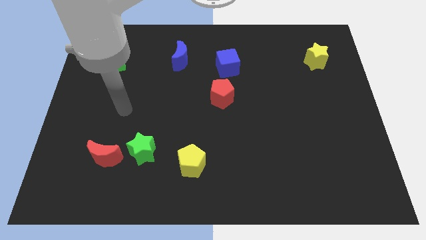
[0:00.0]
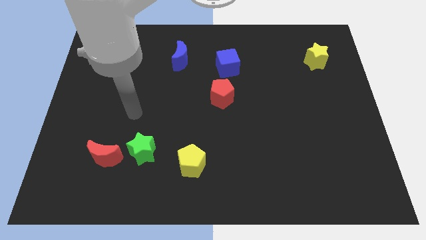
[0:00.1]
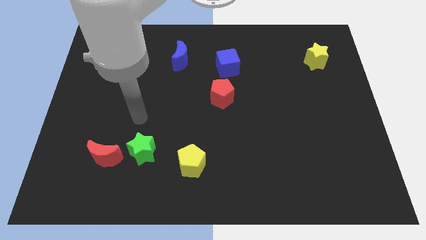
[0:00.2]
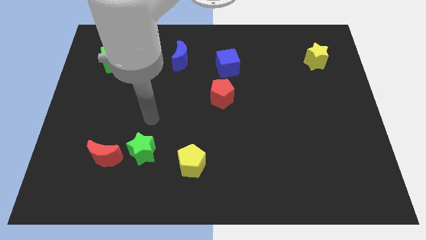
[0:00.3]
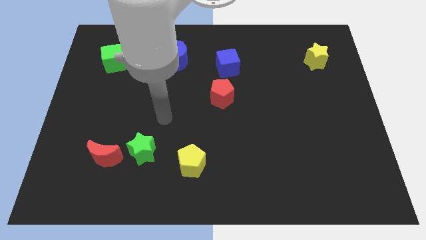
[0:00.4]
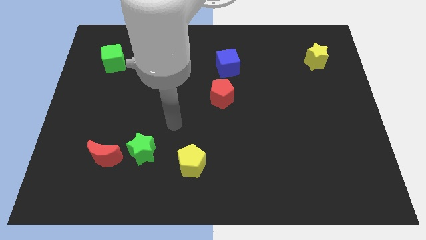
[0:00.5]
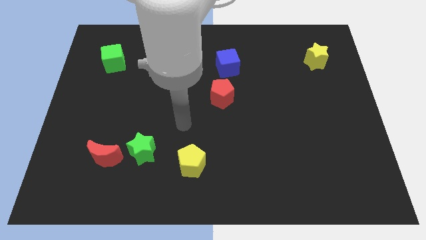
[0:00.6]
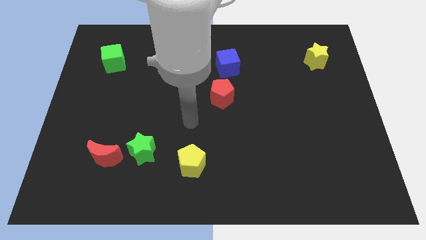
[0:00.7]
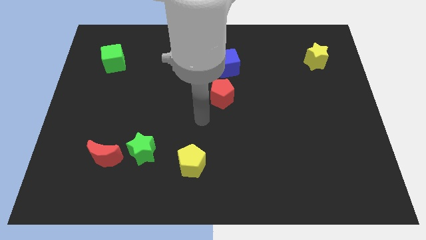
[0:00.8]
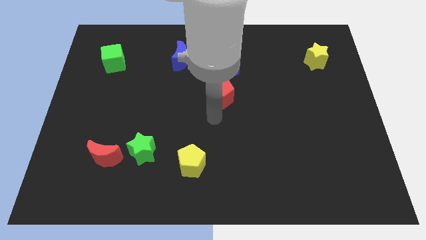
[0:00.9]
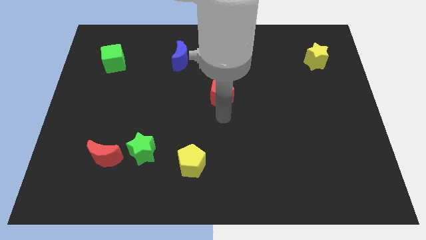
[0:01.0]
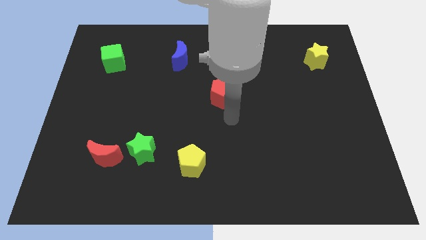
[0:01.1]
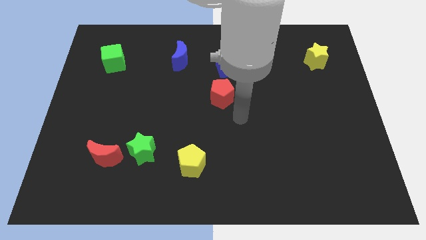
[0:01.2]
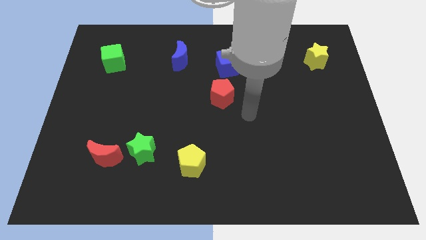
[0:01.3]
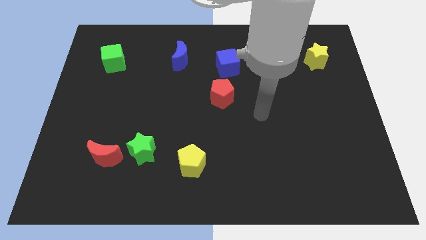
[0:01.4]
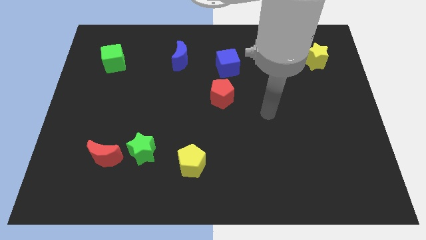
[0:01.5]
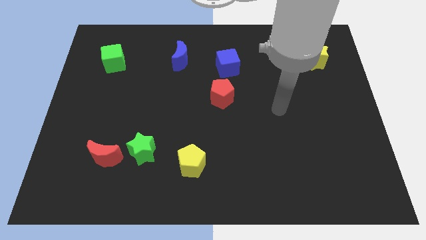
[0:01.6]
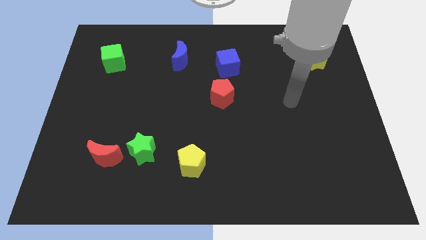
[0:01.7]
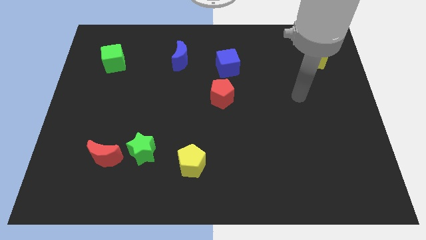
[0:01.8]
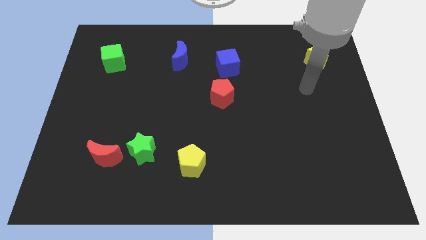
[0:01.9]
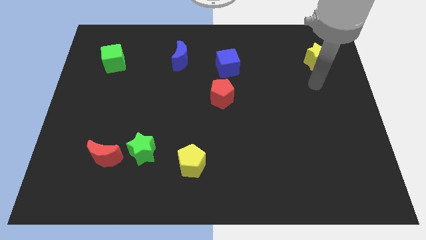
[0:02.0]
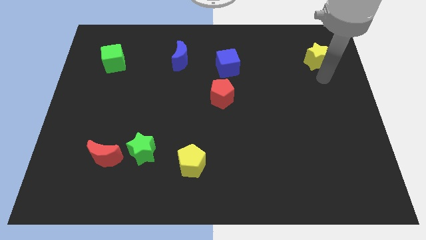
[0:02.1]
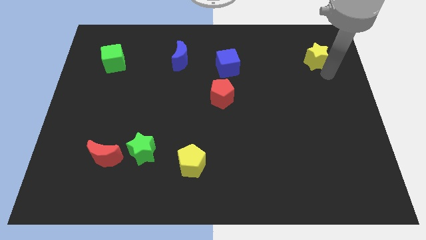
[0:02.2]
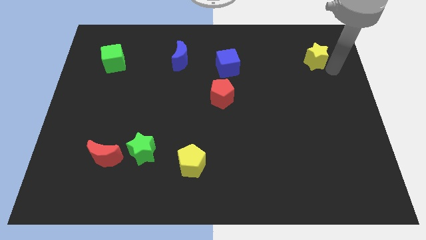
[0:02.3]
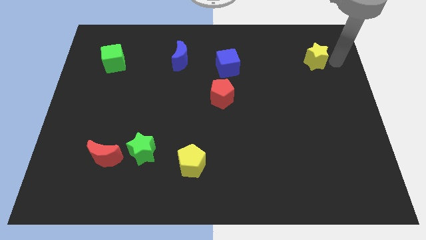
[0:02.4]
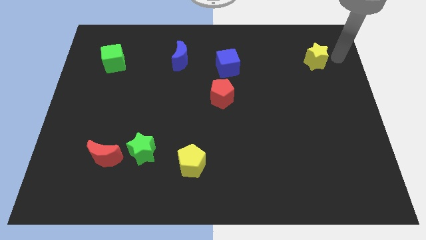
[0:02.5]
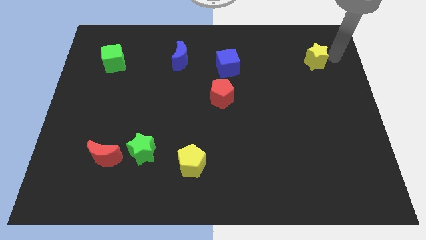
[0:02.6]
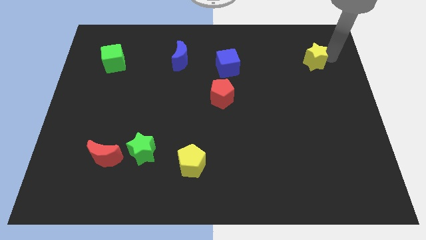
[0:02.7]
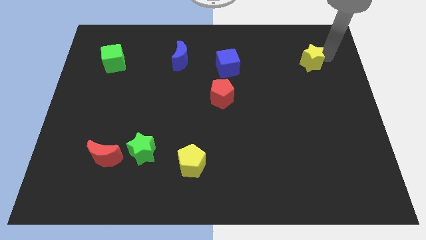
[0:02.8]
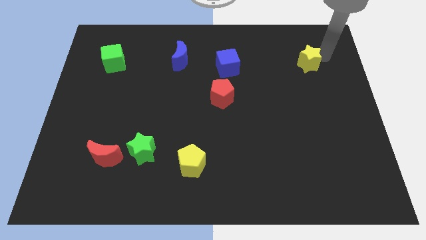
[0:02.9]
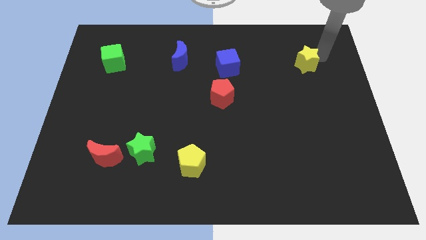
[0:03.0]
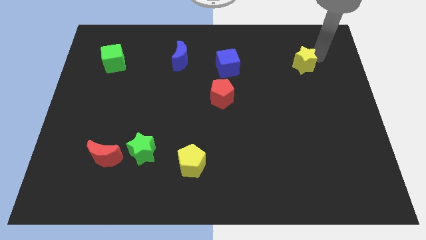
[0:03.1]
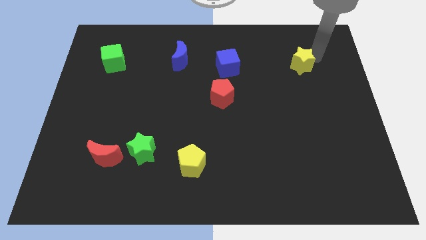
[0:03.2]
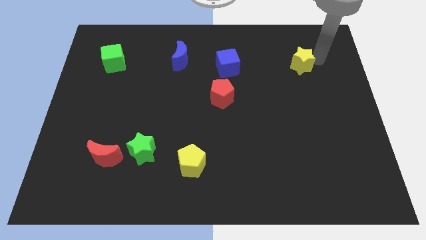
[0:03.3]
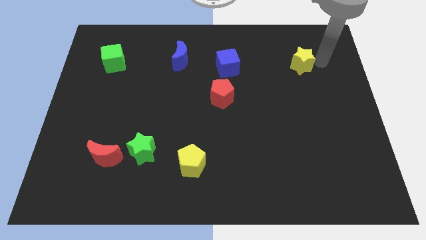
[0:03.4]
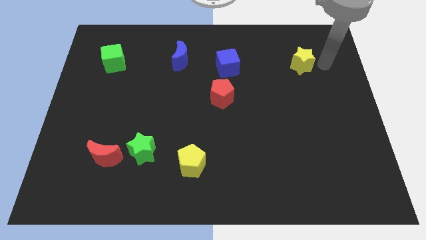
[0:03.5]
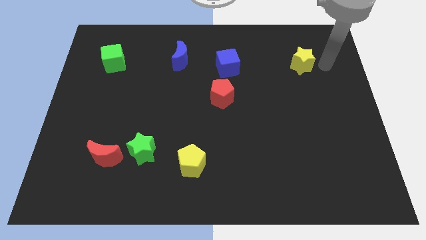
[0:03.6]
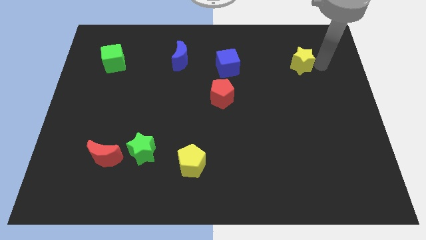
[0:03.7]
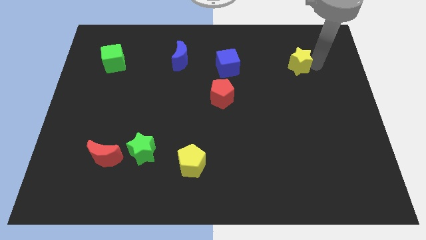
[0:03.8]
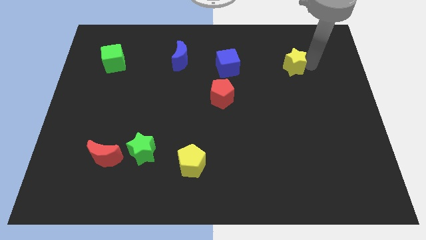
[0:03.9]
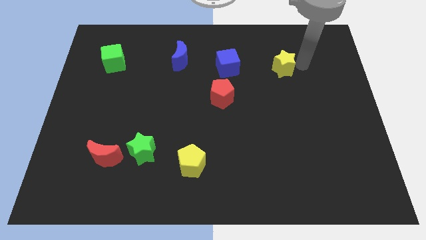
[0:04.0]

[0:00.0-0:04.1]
push the yellow star a bit left

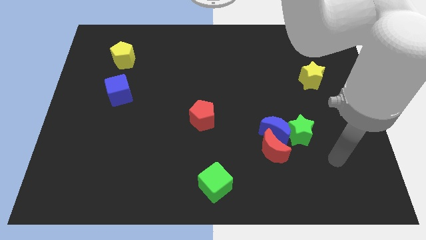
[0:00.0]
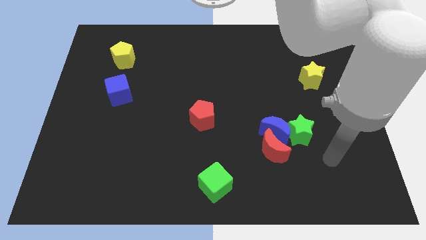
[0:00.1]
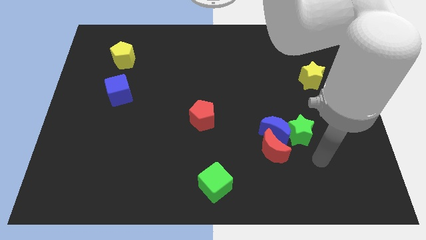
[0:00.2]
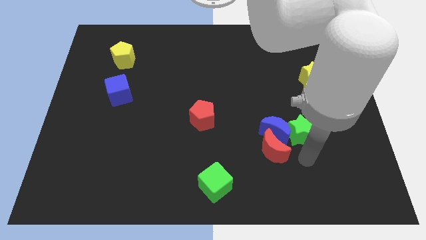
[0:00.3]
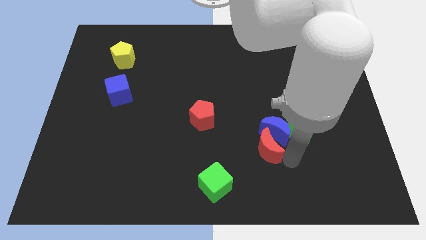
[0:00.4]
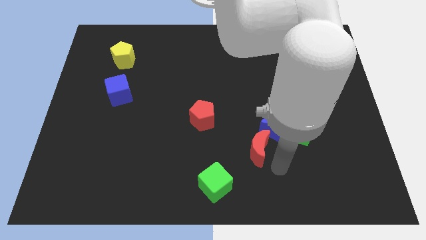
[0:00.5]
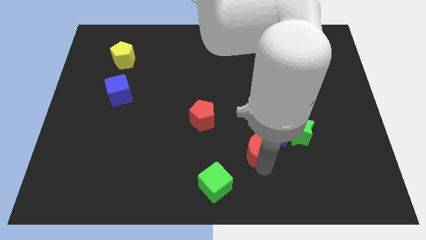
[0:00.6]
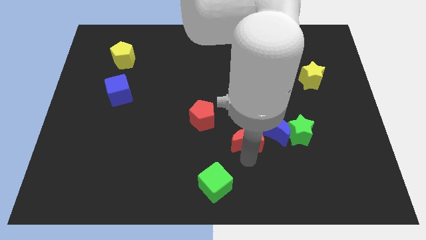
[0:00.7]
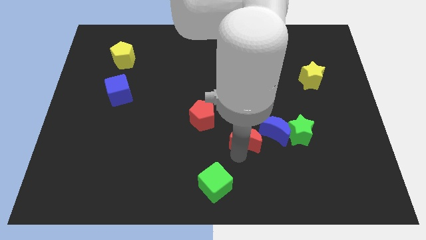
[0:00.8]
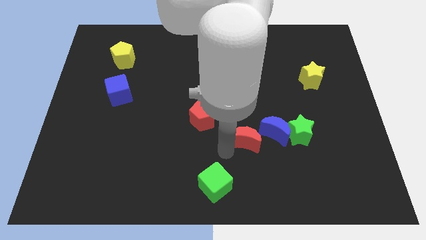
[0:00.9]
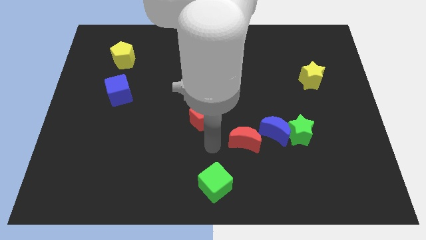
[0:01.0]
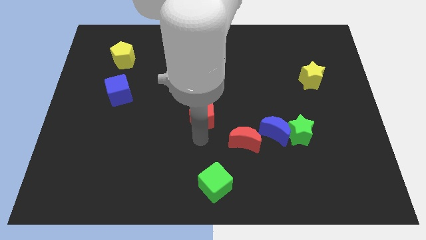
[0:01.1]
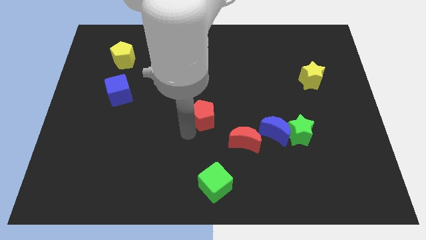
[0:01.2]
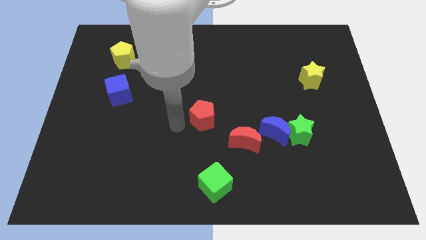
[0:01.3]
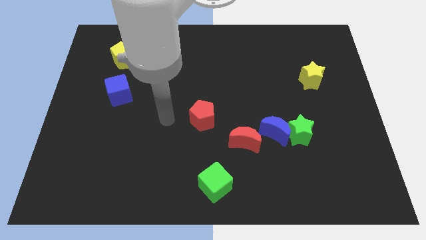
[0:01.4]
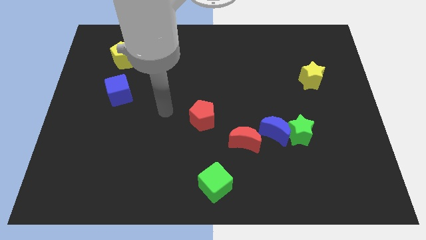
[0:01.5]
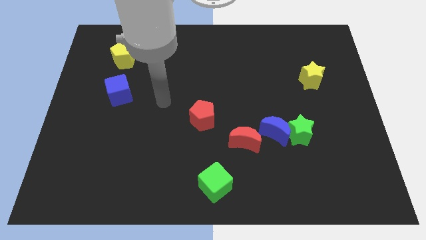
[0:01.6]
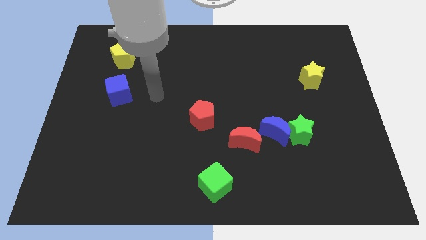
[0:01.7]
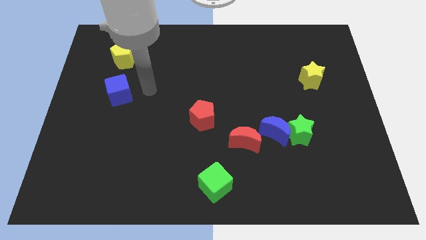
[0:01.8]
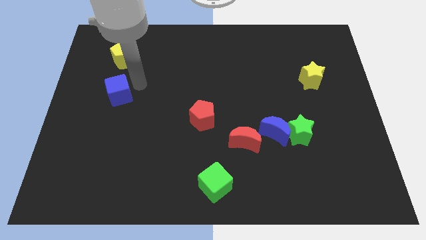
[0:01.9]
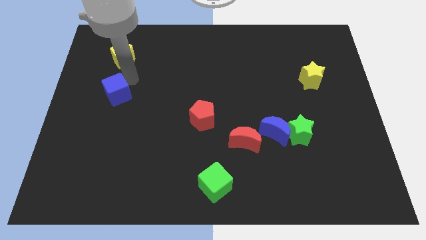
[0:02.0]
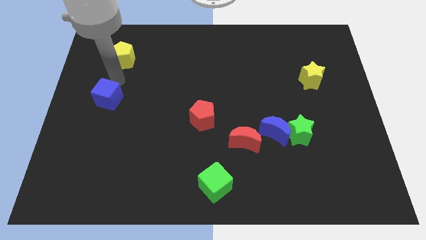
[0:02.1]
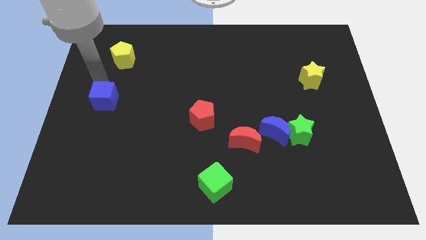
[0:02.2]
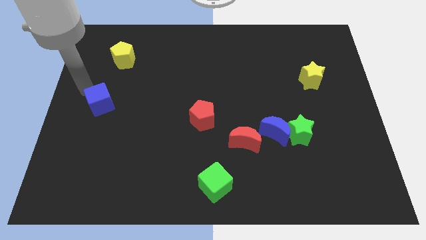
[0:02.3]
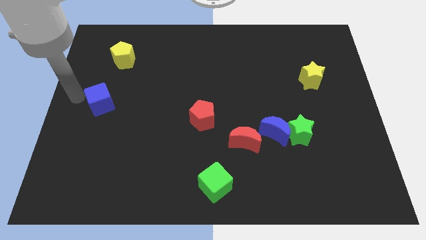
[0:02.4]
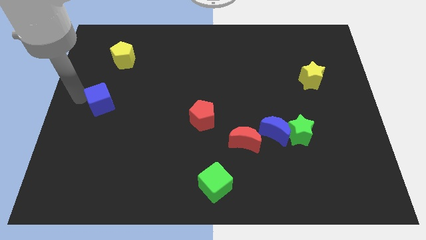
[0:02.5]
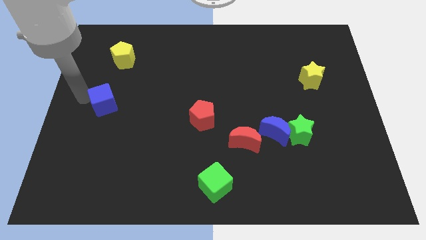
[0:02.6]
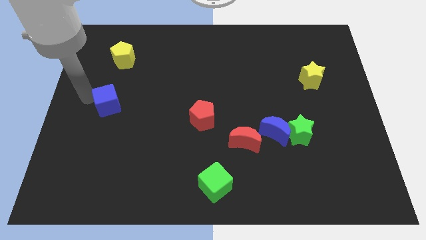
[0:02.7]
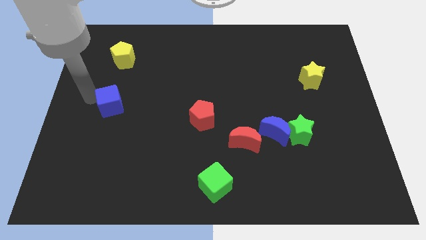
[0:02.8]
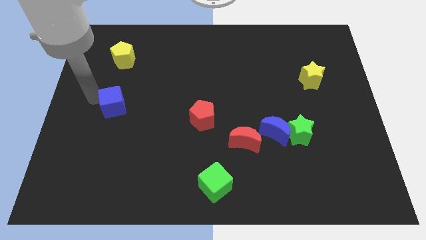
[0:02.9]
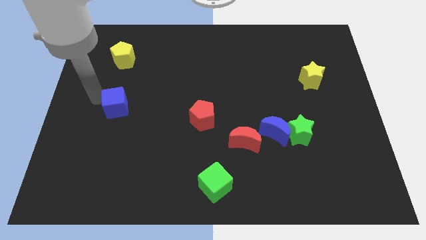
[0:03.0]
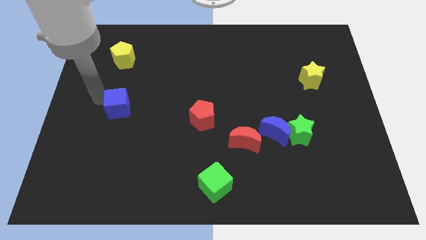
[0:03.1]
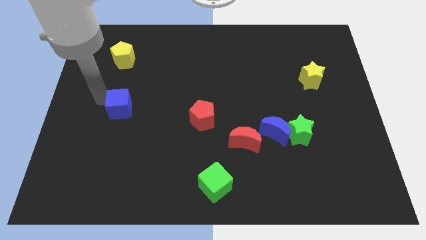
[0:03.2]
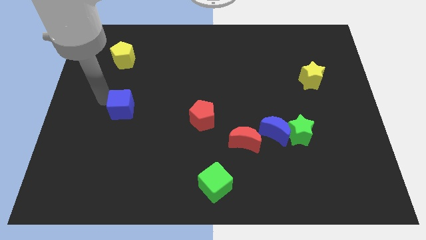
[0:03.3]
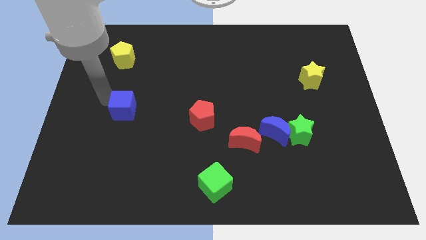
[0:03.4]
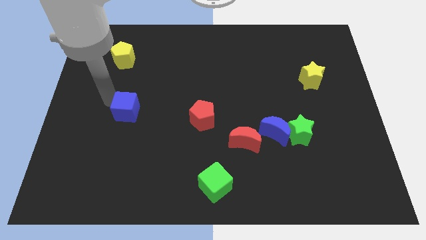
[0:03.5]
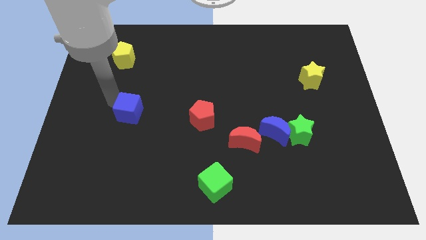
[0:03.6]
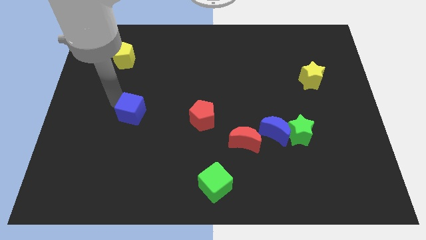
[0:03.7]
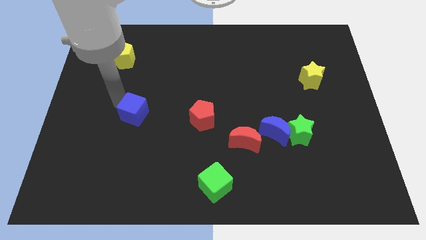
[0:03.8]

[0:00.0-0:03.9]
slightly slide the blue cube down and then to the right
